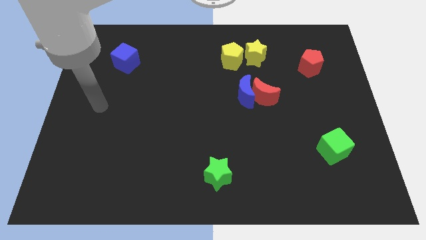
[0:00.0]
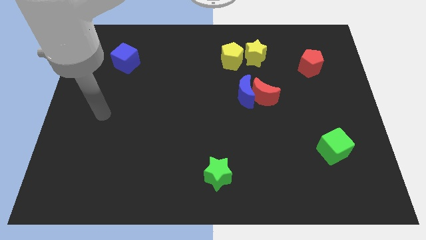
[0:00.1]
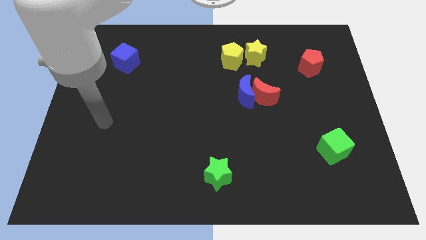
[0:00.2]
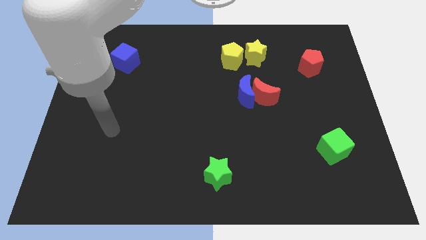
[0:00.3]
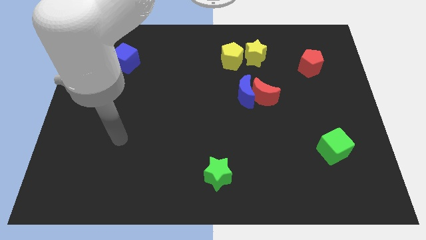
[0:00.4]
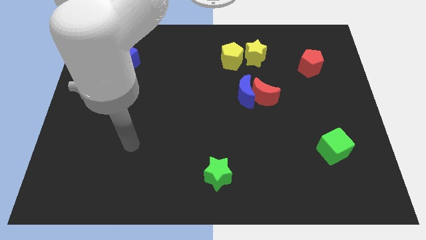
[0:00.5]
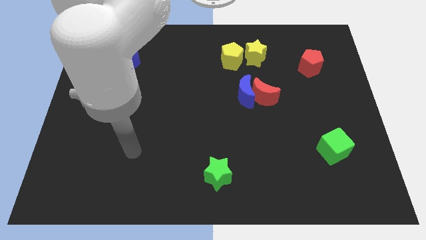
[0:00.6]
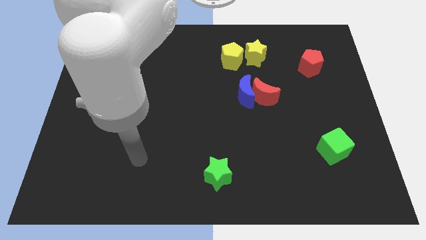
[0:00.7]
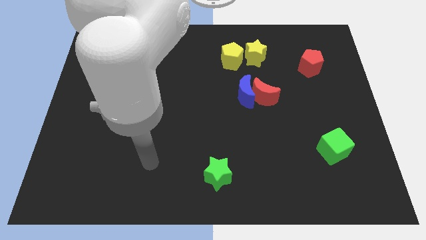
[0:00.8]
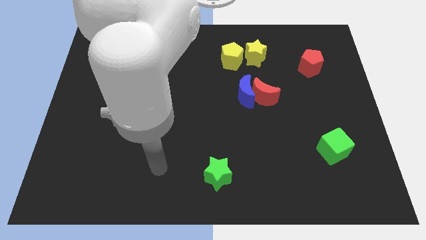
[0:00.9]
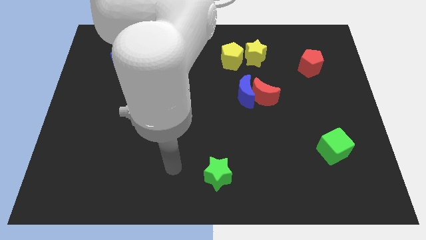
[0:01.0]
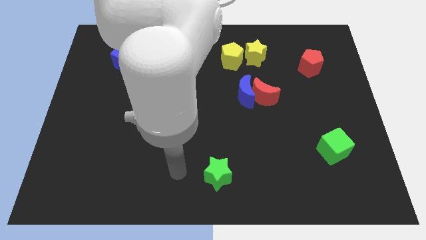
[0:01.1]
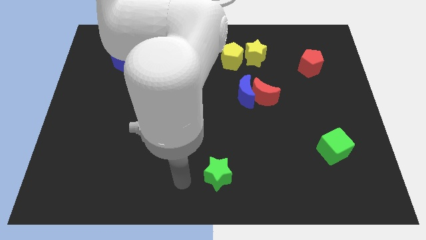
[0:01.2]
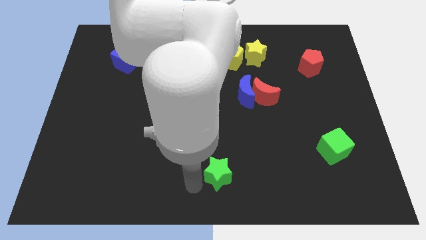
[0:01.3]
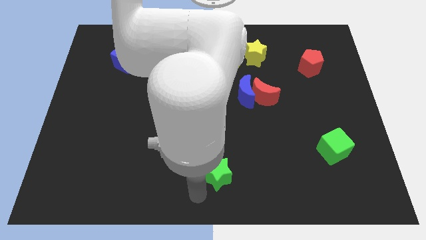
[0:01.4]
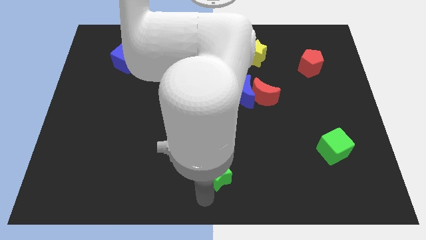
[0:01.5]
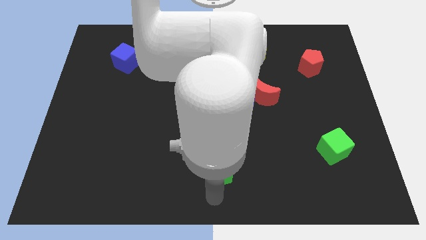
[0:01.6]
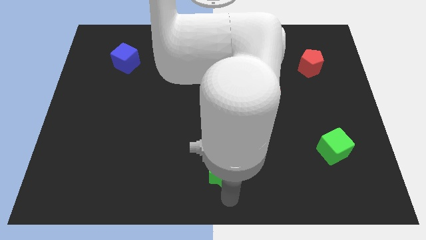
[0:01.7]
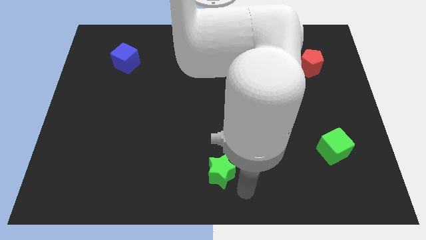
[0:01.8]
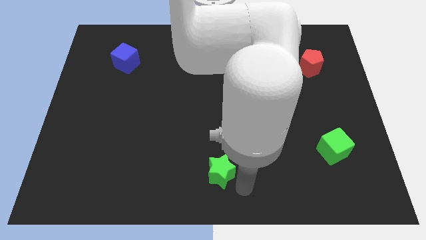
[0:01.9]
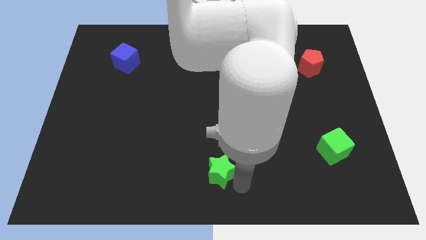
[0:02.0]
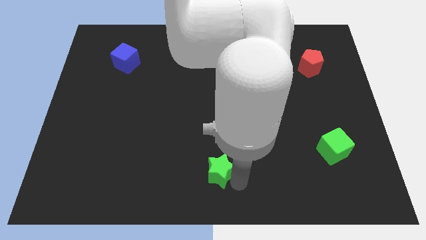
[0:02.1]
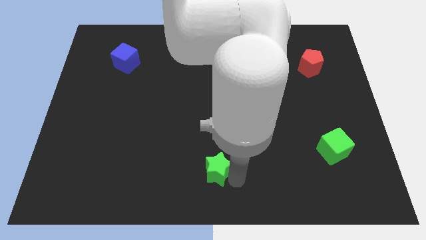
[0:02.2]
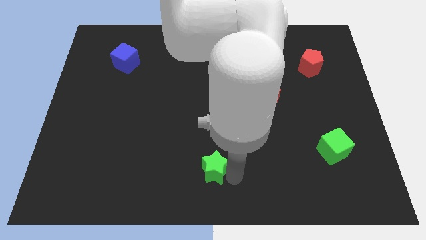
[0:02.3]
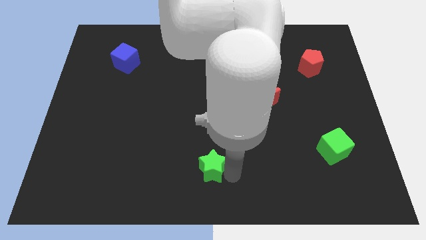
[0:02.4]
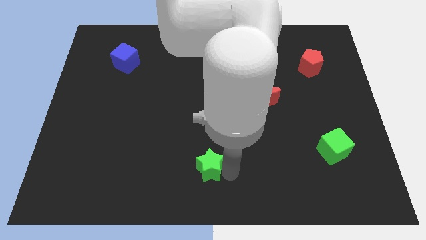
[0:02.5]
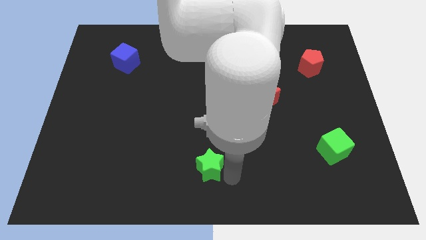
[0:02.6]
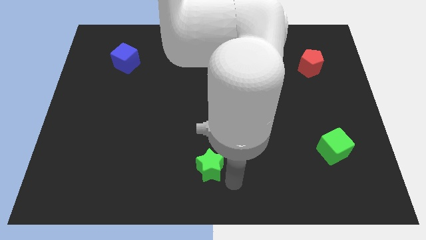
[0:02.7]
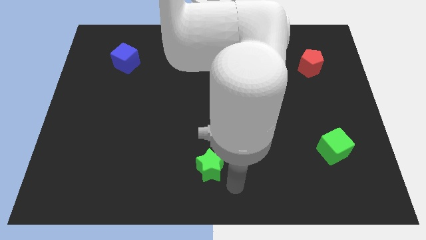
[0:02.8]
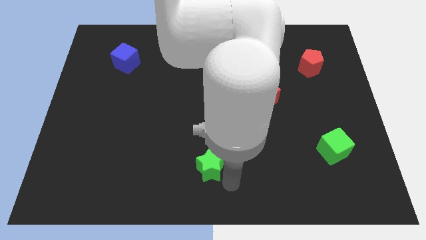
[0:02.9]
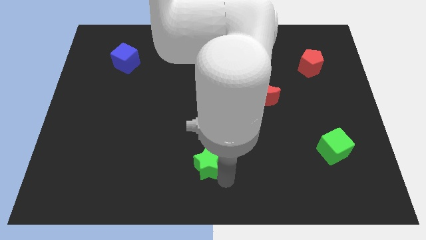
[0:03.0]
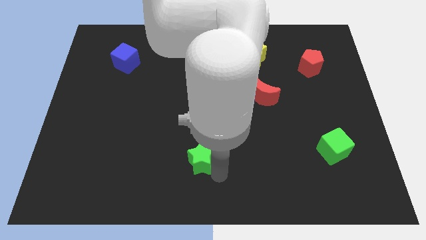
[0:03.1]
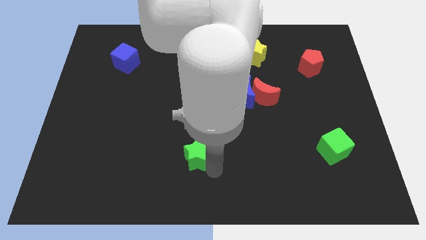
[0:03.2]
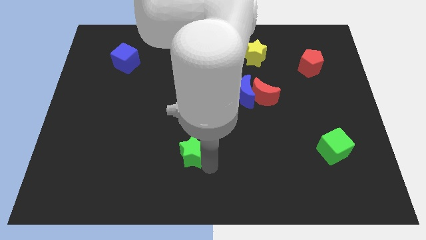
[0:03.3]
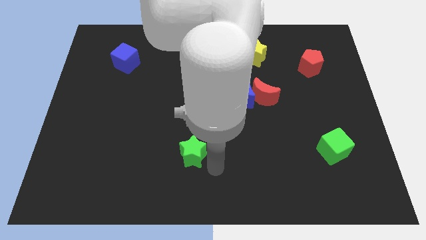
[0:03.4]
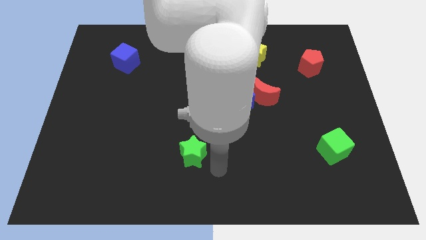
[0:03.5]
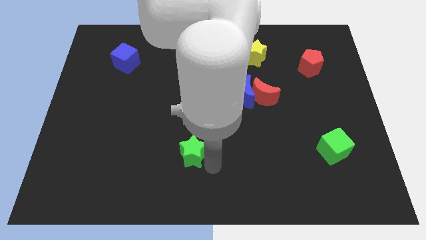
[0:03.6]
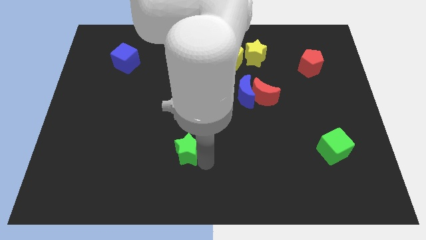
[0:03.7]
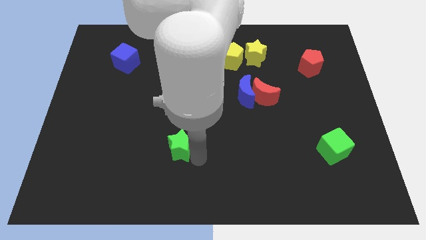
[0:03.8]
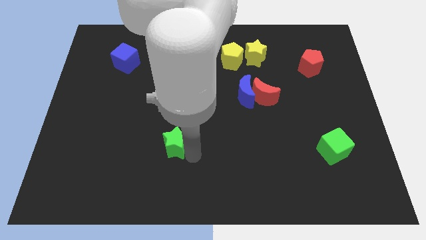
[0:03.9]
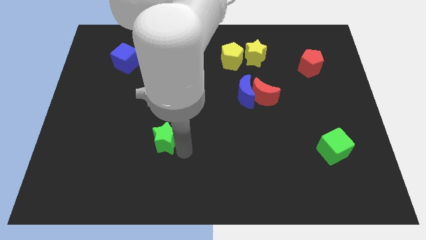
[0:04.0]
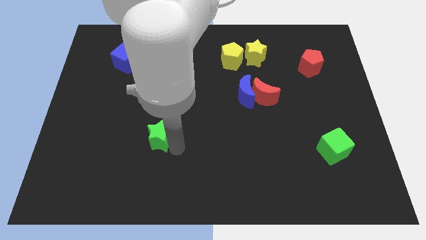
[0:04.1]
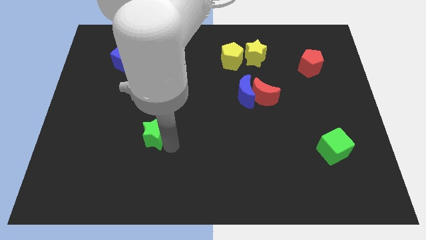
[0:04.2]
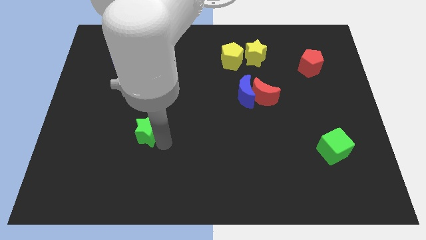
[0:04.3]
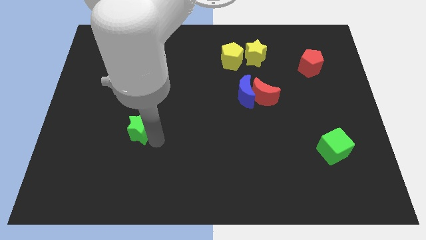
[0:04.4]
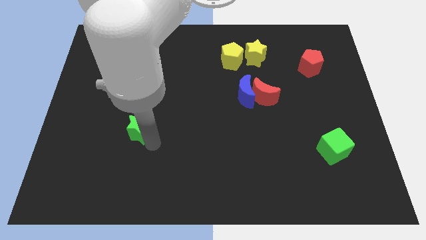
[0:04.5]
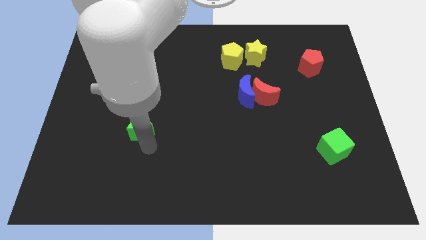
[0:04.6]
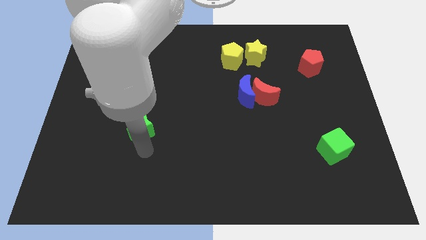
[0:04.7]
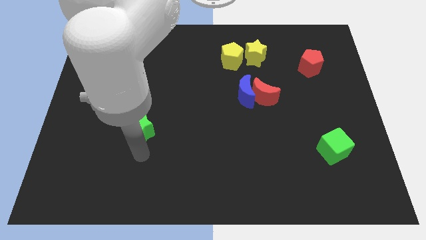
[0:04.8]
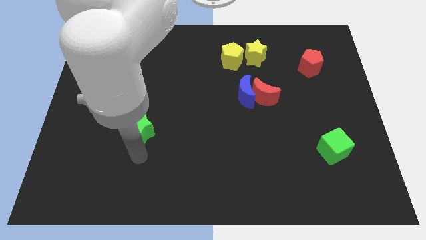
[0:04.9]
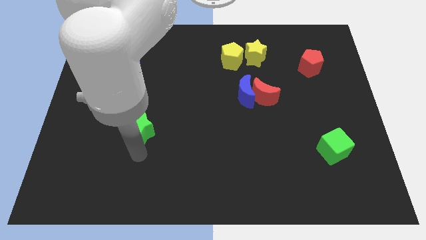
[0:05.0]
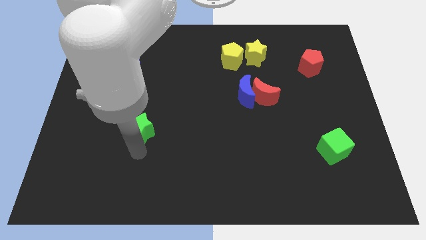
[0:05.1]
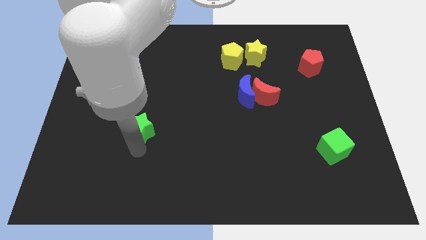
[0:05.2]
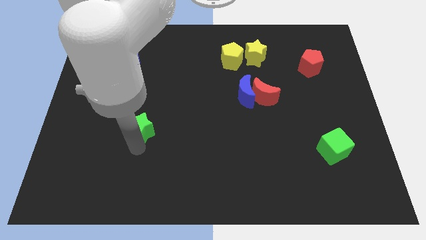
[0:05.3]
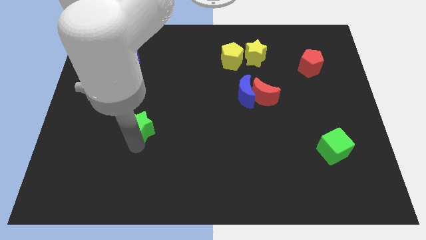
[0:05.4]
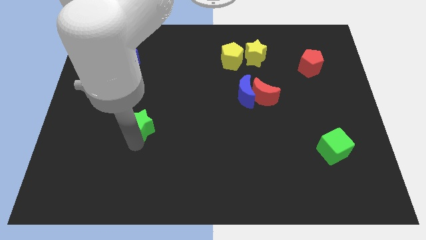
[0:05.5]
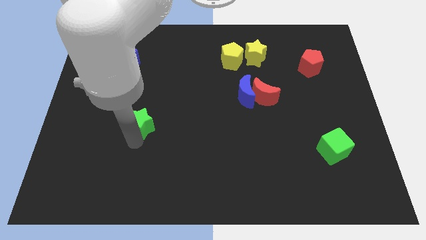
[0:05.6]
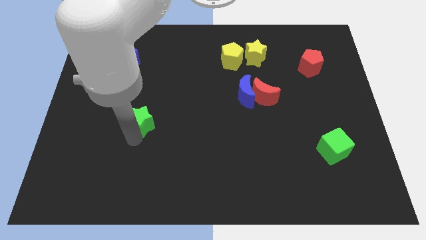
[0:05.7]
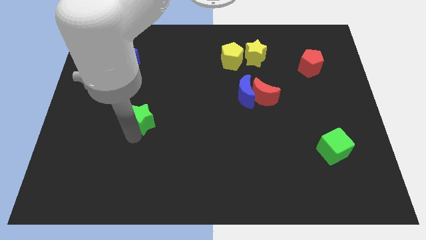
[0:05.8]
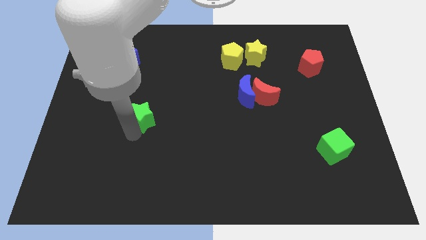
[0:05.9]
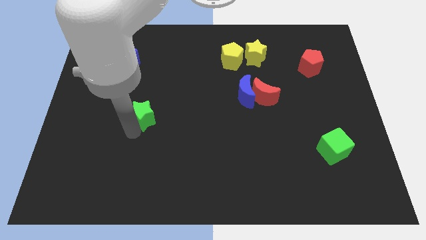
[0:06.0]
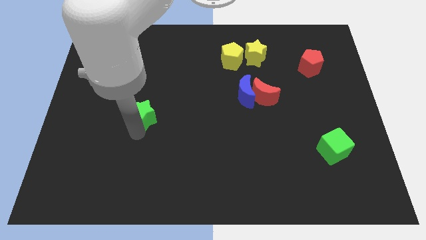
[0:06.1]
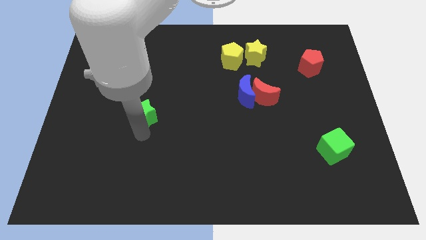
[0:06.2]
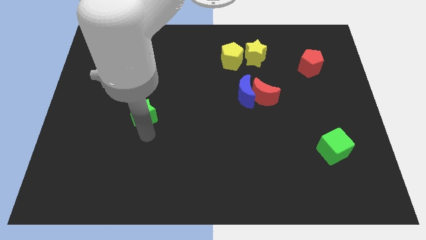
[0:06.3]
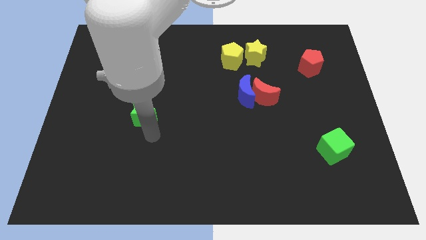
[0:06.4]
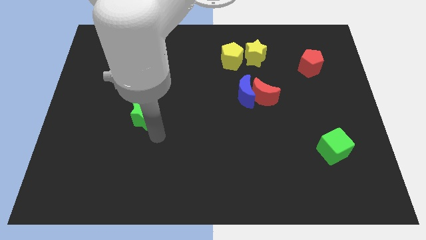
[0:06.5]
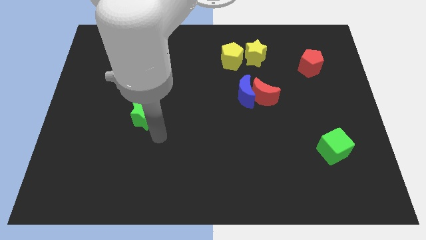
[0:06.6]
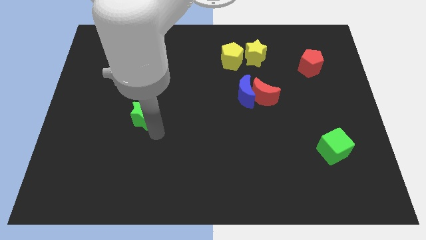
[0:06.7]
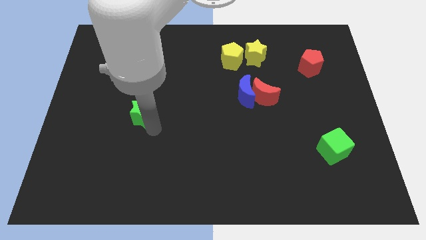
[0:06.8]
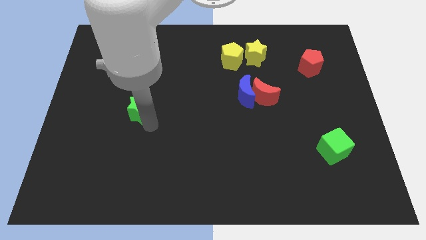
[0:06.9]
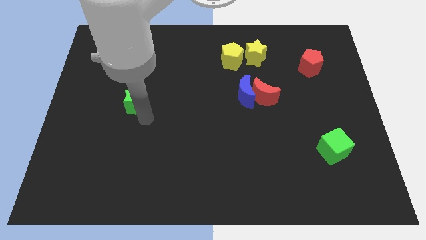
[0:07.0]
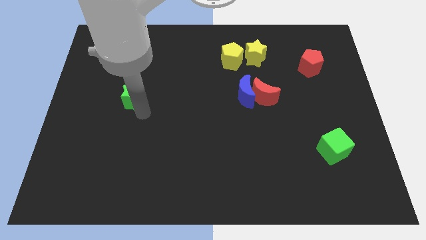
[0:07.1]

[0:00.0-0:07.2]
put the green star to the bottom of the blue cube
